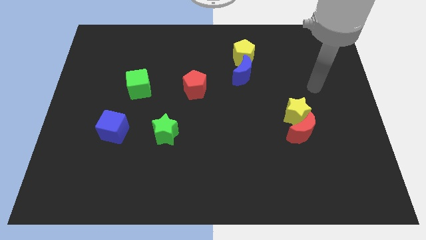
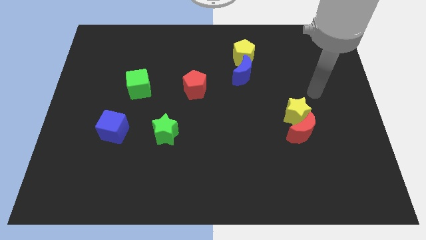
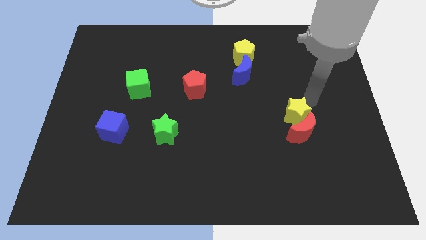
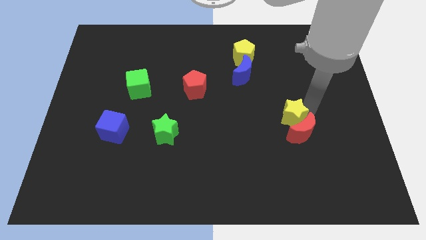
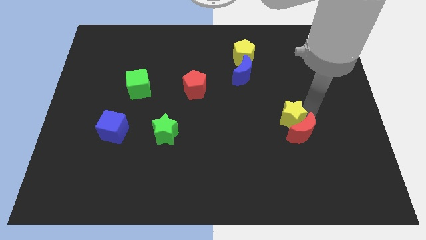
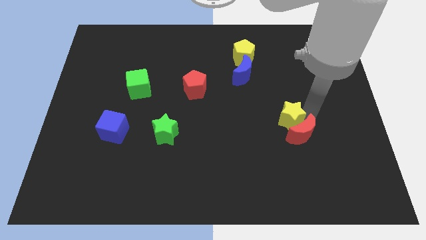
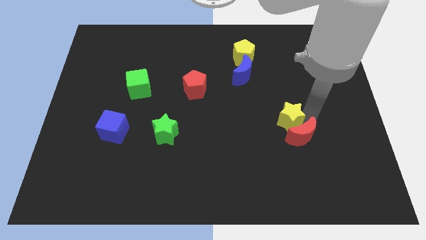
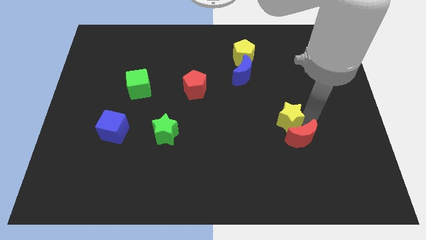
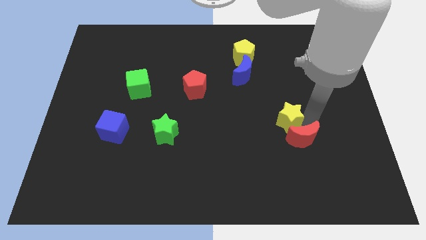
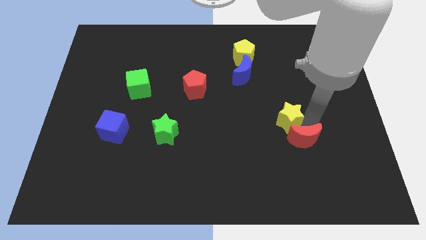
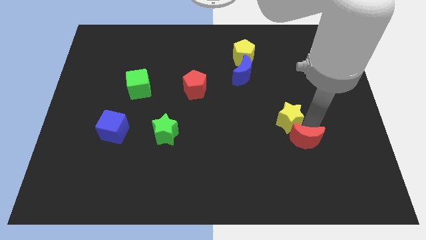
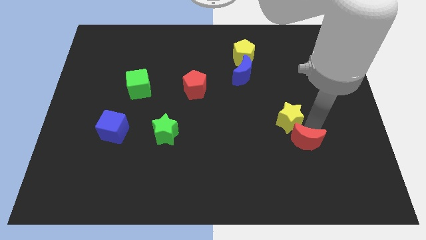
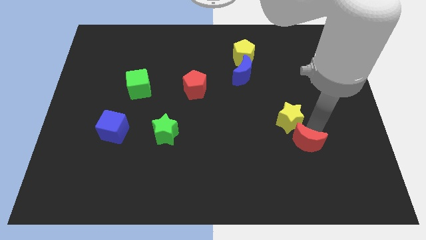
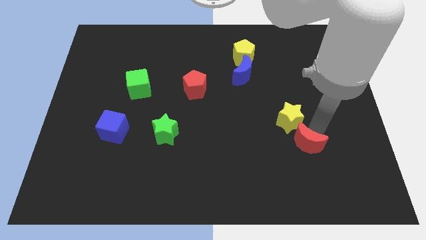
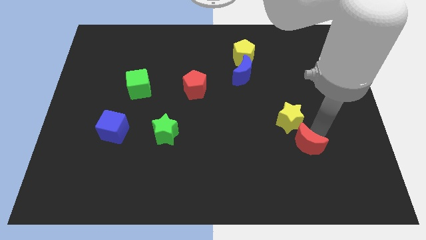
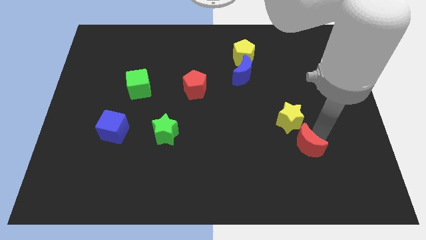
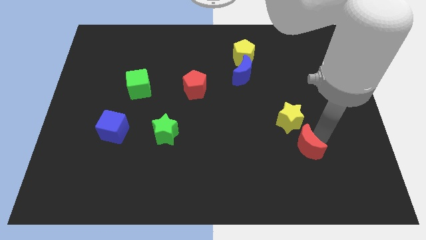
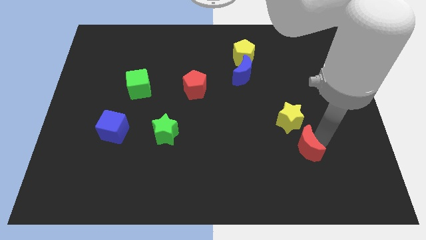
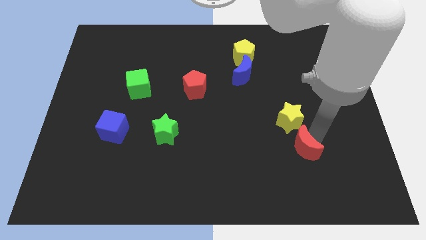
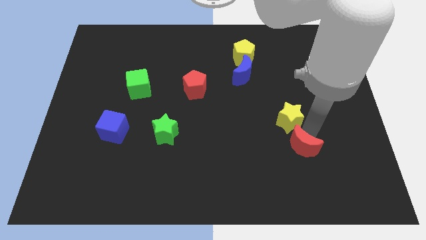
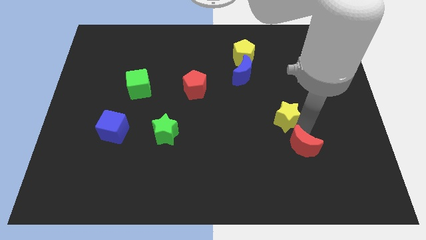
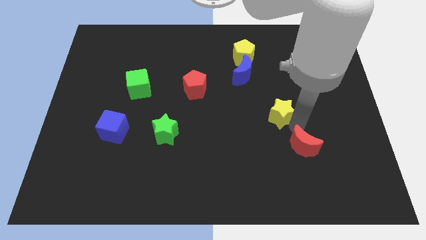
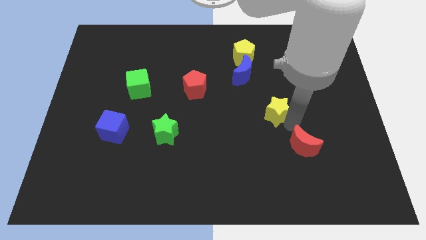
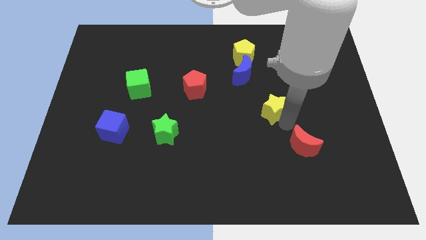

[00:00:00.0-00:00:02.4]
pull the red moon apart from the yellow star

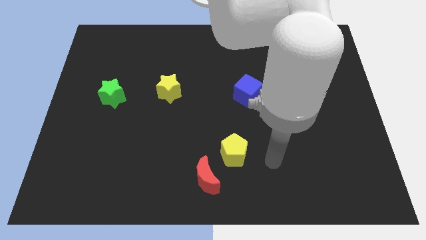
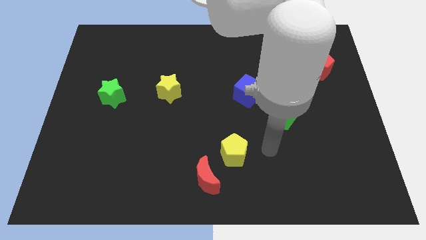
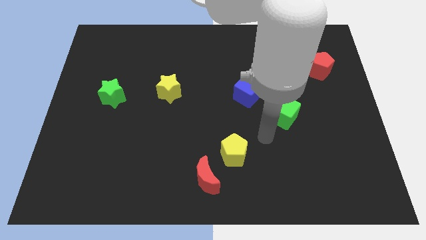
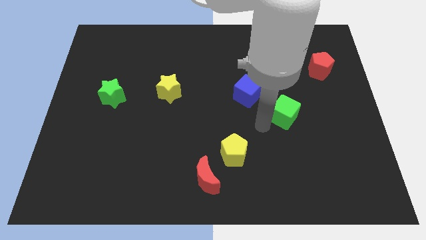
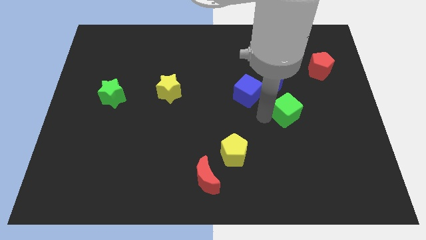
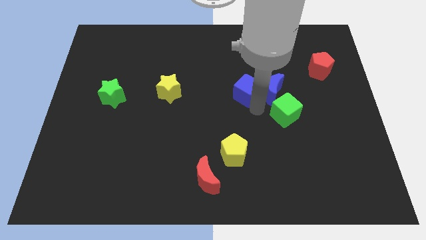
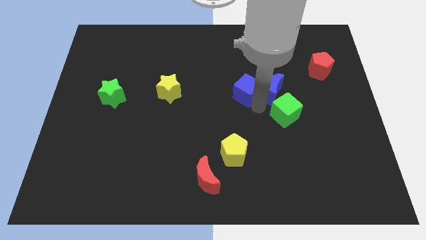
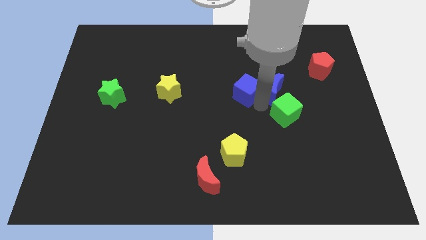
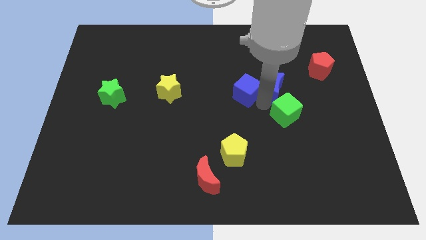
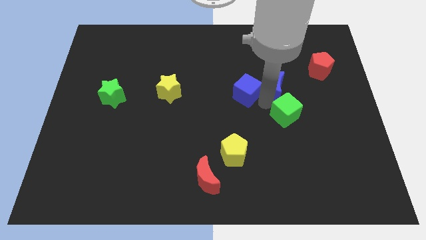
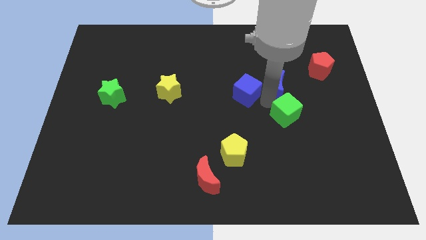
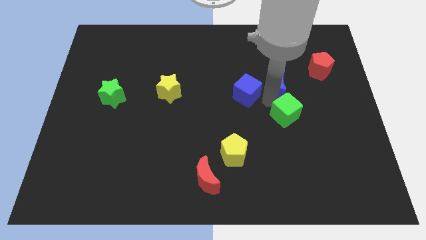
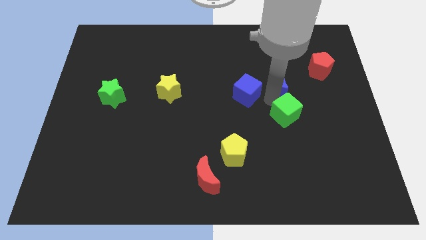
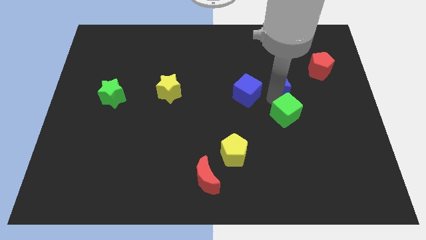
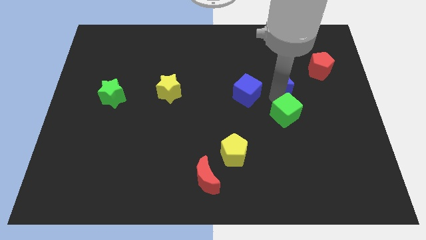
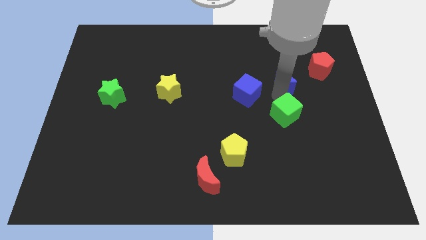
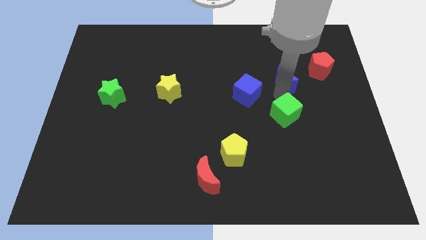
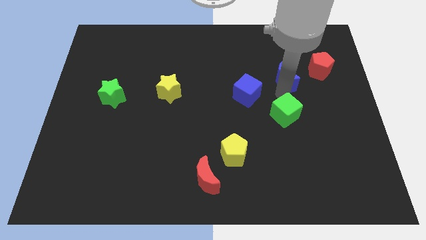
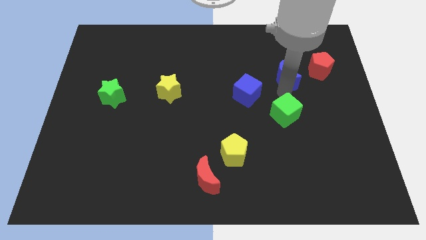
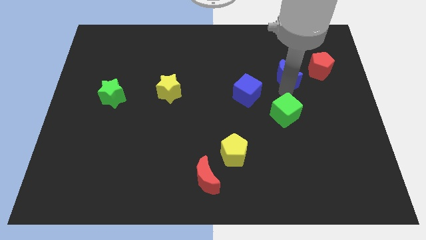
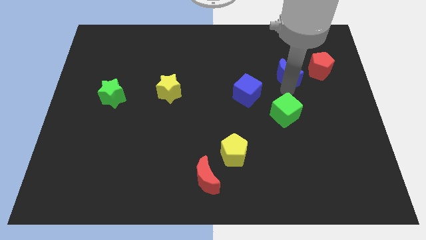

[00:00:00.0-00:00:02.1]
separate the blue moon from the blue cube and green cube

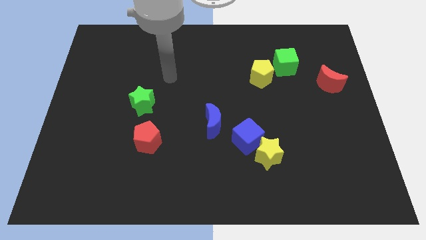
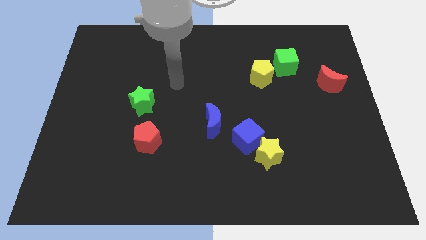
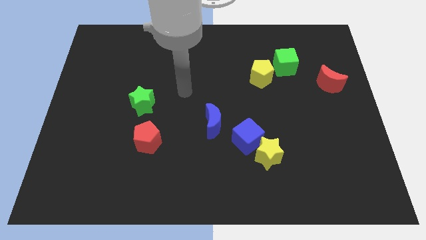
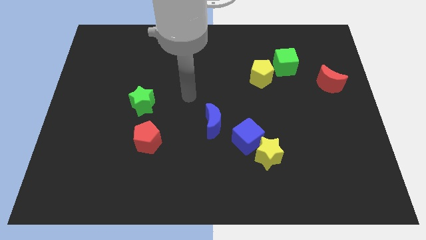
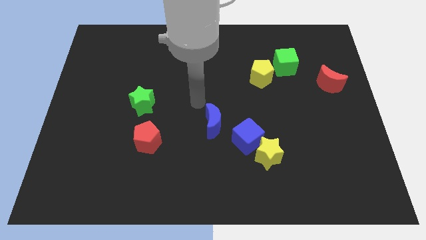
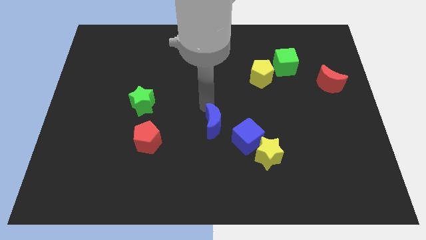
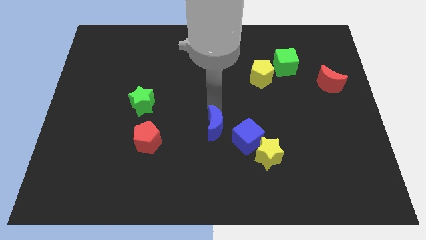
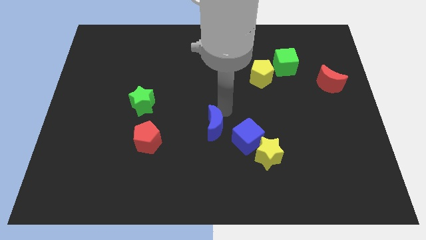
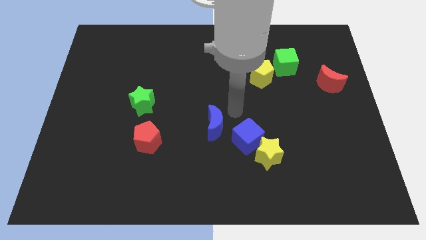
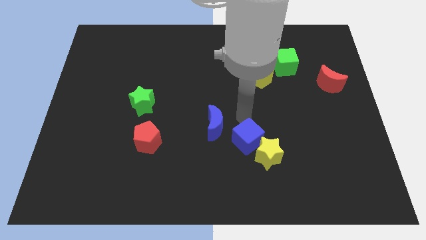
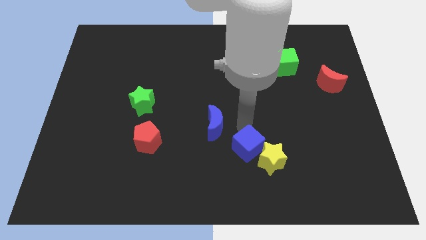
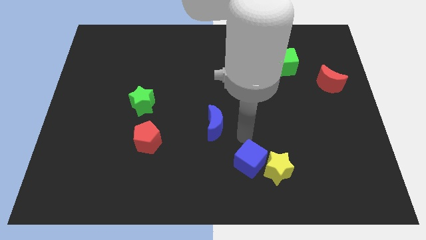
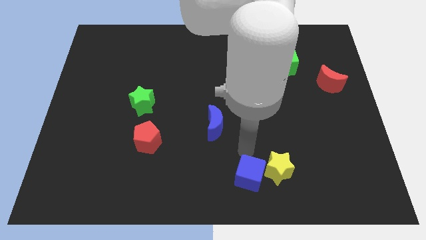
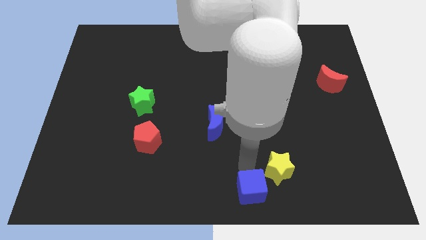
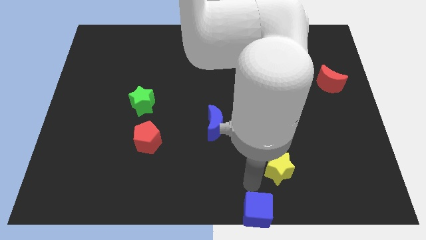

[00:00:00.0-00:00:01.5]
separate the yellow star from the blue cube

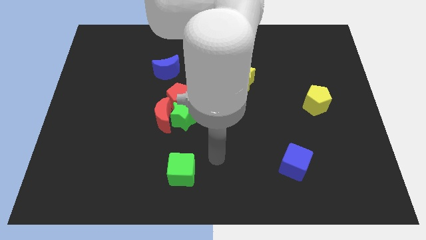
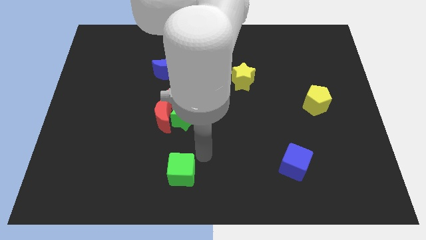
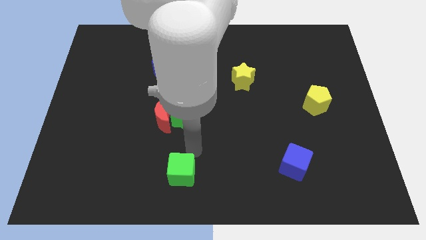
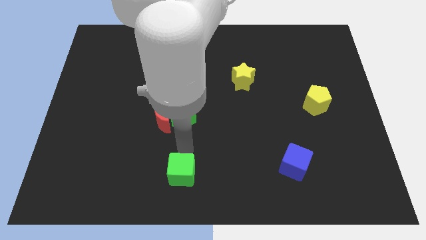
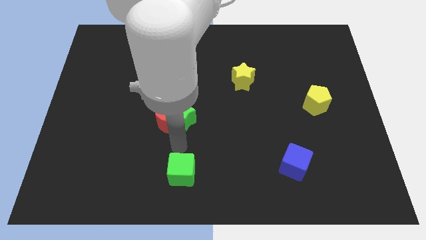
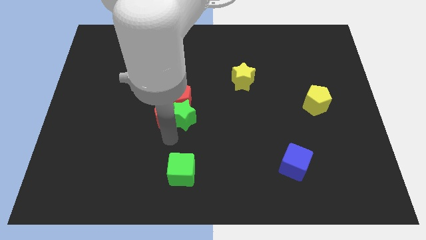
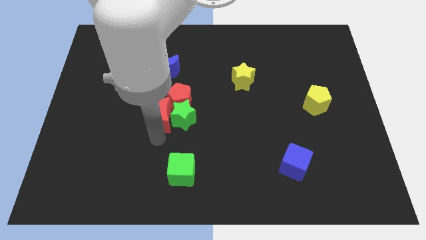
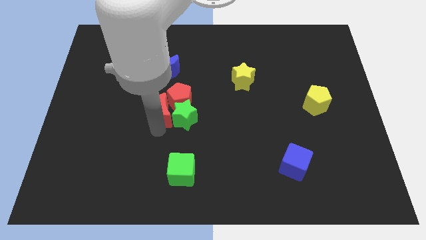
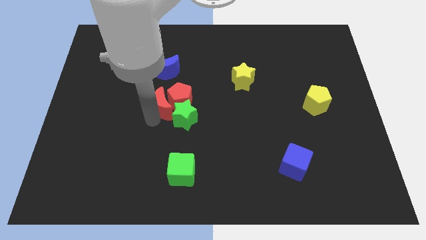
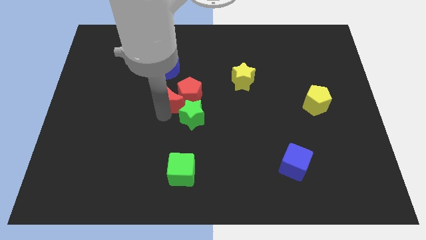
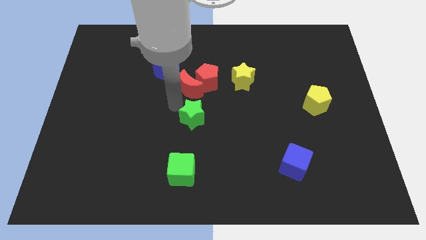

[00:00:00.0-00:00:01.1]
move the green star away from the red moon and red pentagon

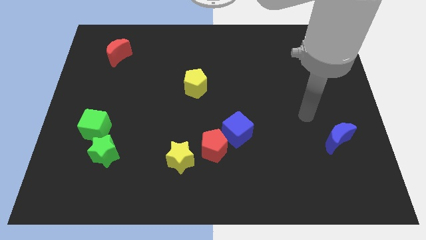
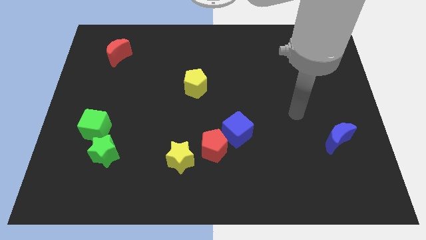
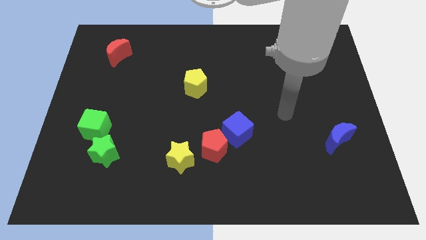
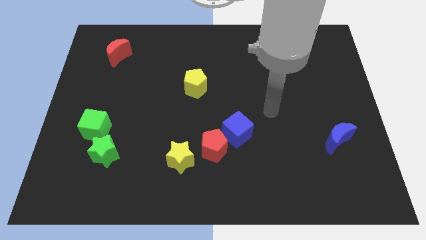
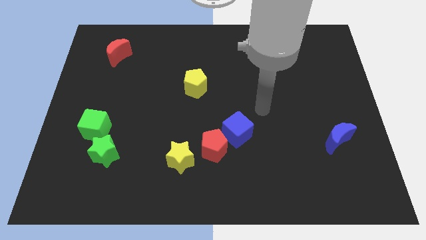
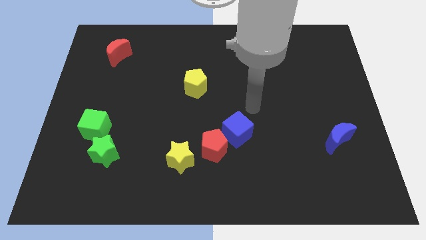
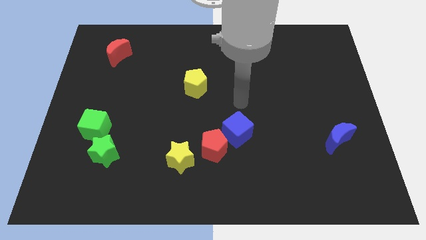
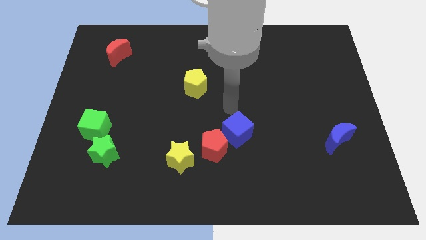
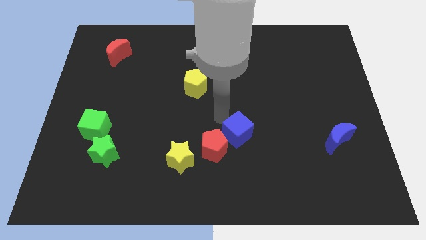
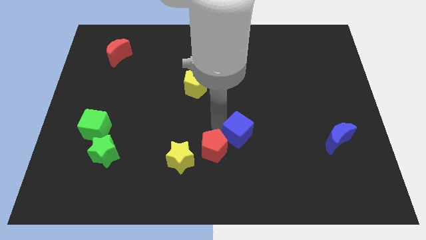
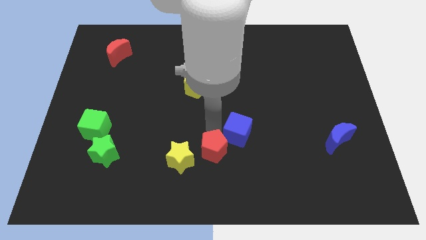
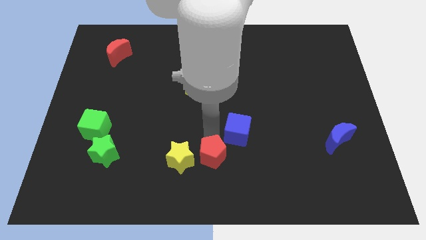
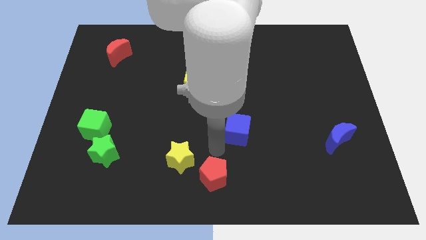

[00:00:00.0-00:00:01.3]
pull the blue cube apart from the red pentagon

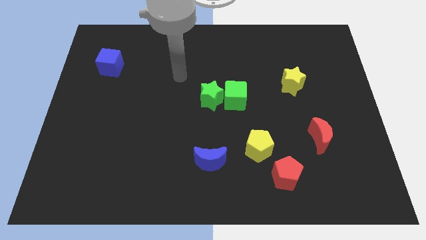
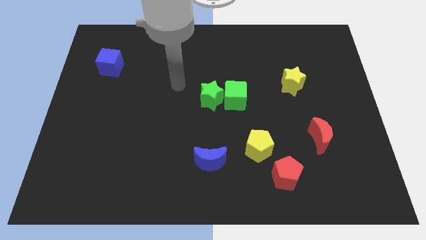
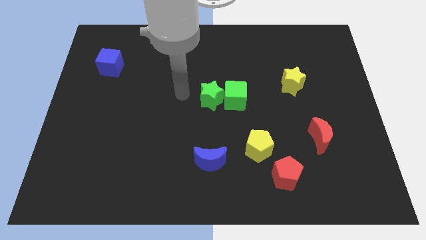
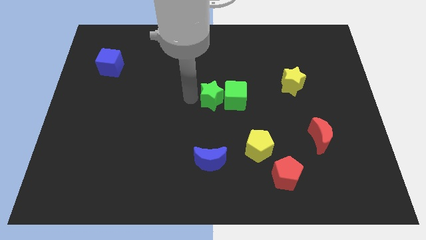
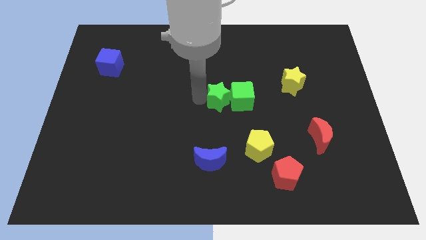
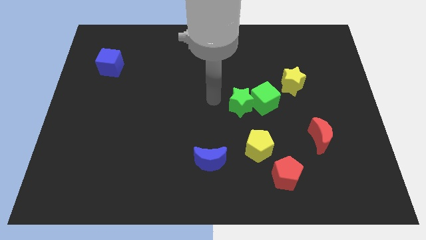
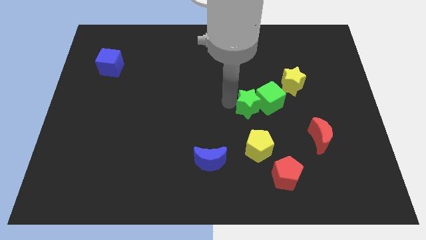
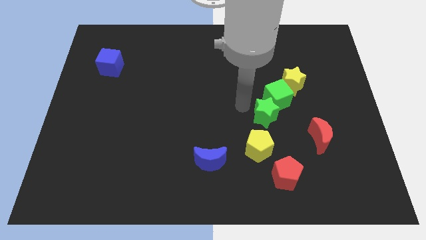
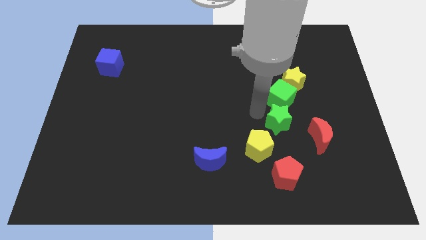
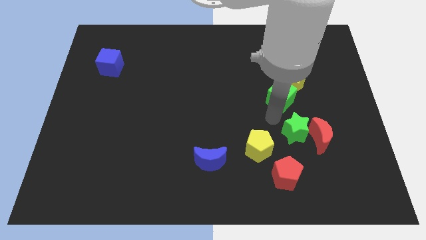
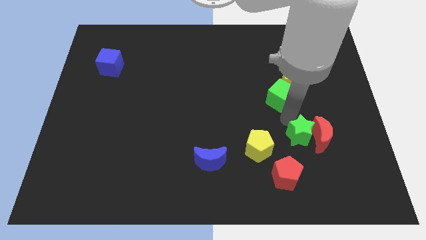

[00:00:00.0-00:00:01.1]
pull the green cube apart from the green star
